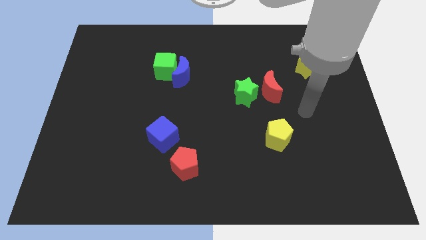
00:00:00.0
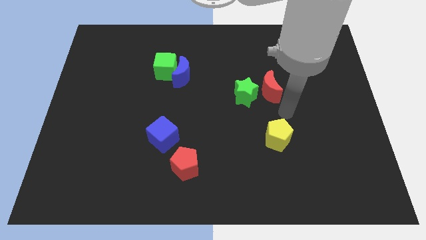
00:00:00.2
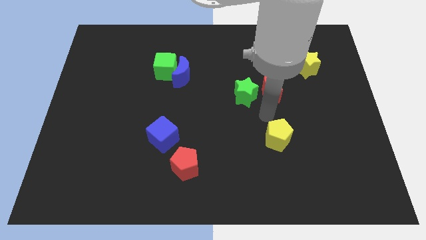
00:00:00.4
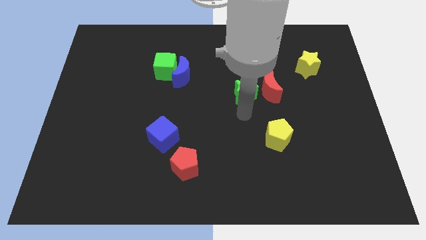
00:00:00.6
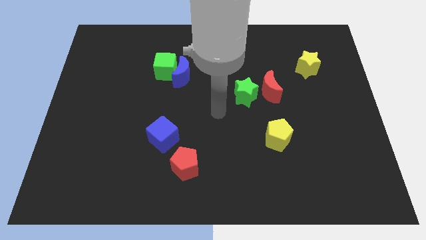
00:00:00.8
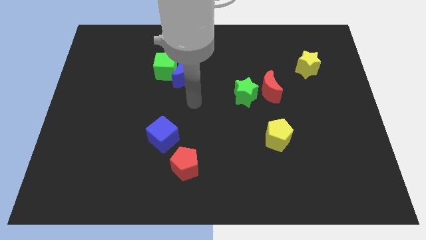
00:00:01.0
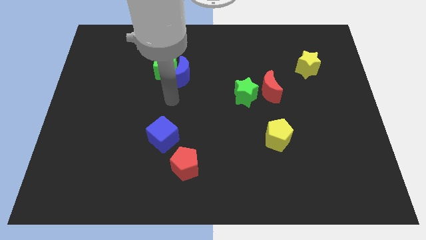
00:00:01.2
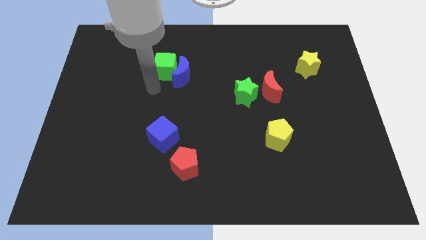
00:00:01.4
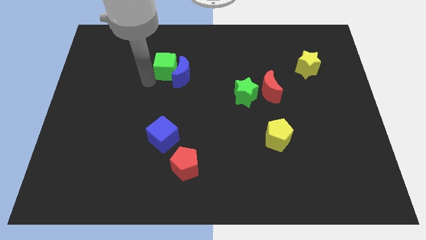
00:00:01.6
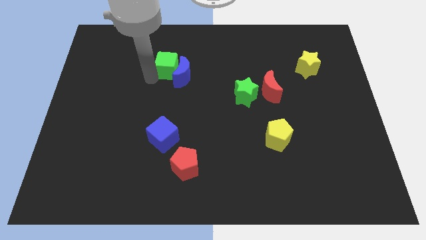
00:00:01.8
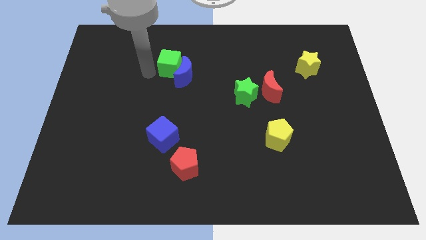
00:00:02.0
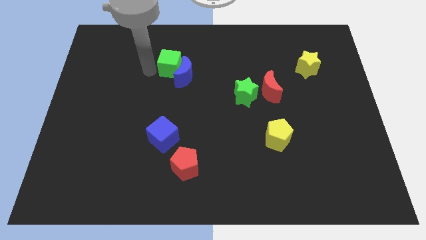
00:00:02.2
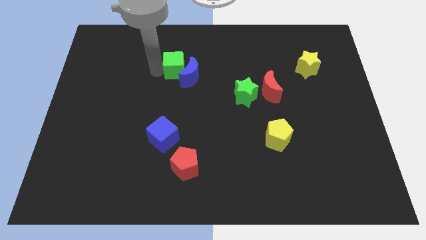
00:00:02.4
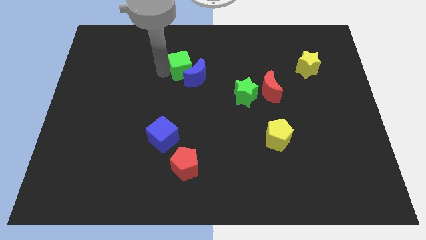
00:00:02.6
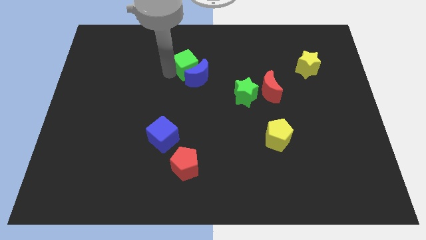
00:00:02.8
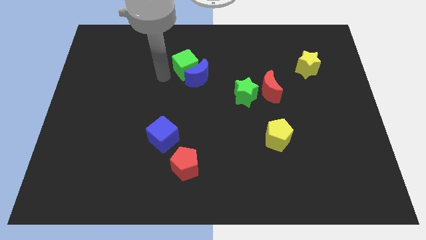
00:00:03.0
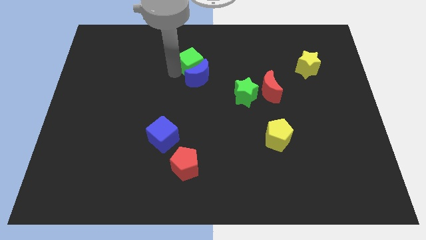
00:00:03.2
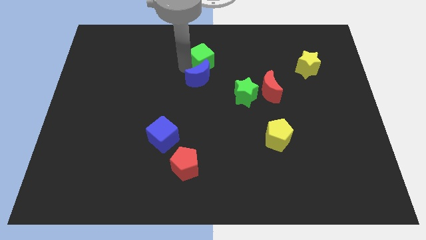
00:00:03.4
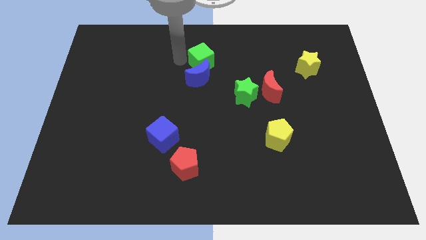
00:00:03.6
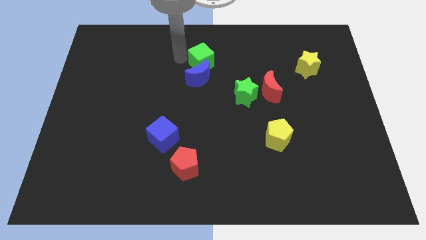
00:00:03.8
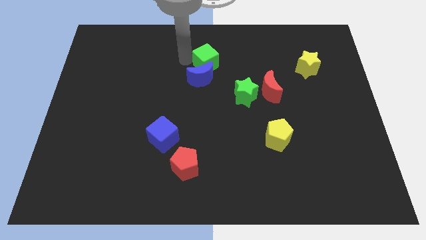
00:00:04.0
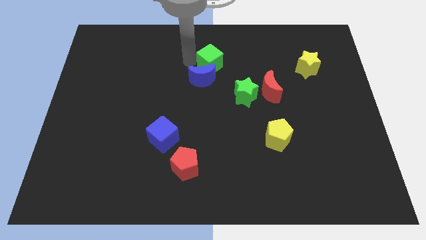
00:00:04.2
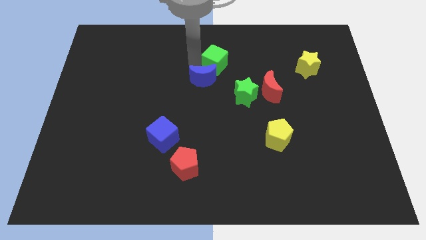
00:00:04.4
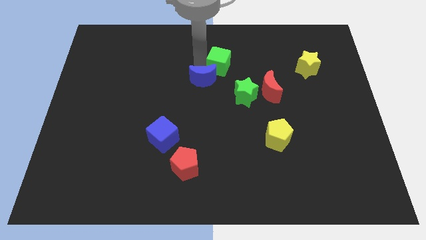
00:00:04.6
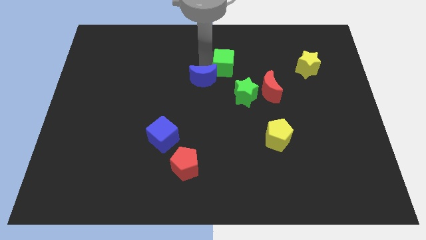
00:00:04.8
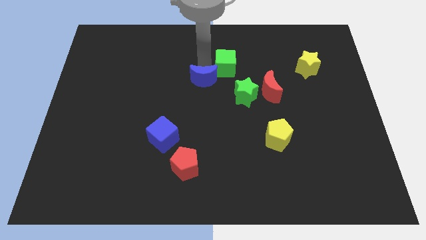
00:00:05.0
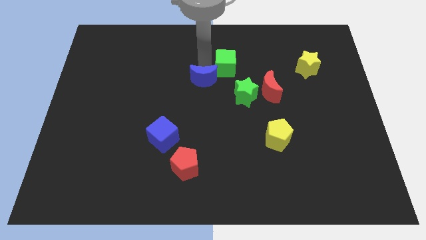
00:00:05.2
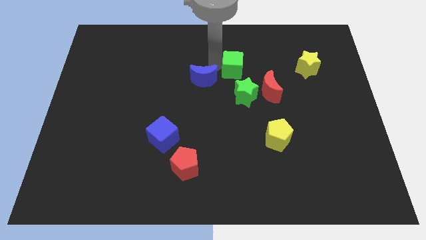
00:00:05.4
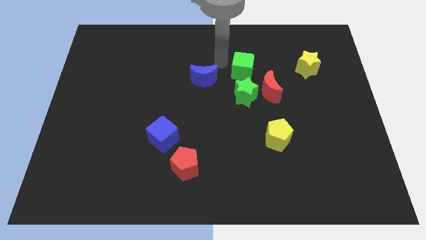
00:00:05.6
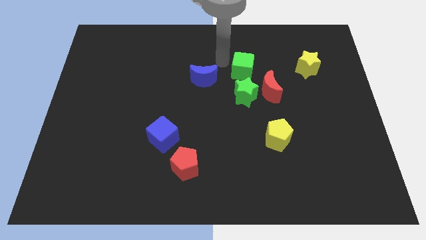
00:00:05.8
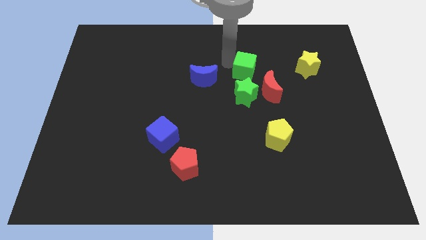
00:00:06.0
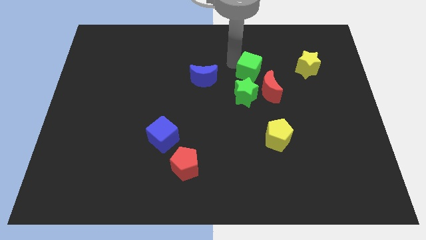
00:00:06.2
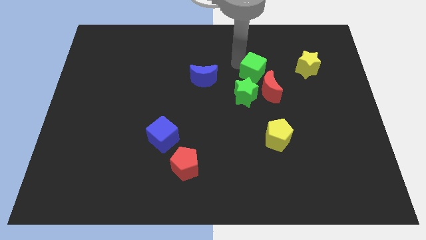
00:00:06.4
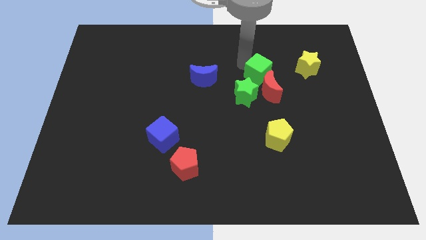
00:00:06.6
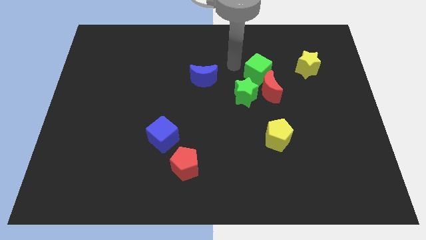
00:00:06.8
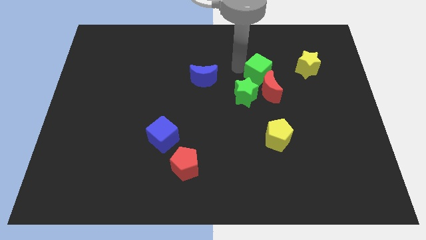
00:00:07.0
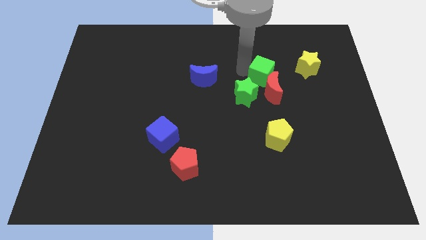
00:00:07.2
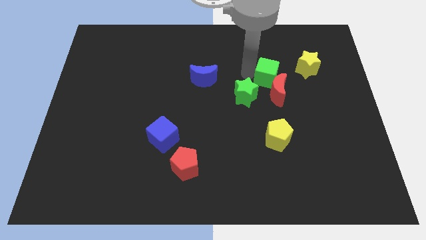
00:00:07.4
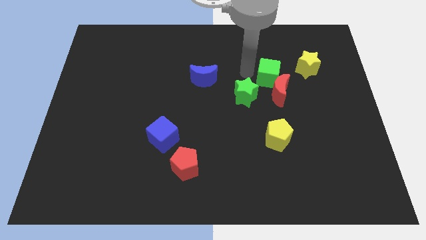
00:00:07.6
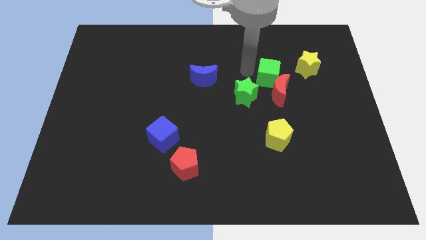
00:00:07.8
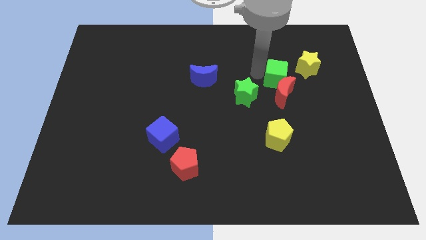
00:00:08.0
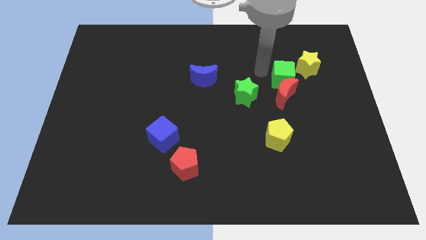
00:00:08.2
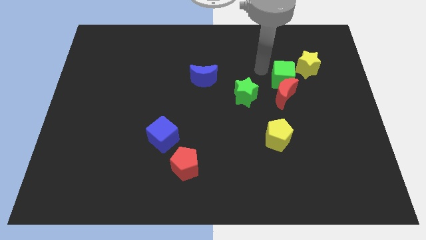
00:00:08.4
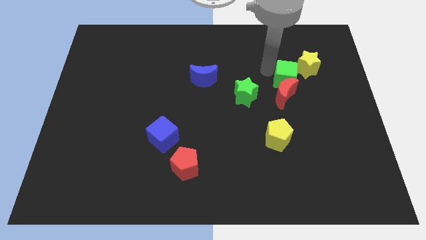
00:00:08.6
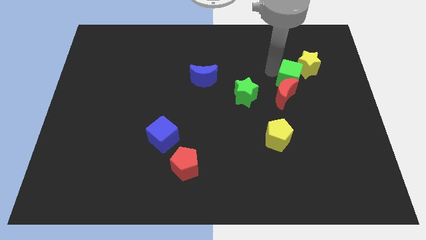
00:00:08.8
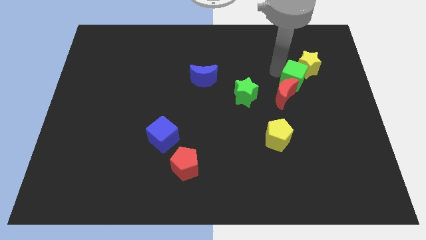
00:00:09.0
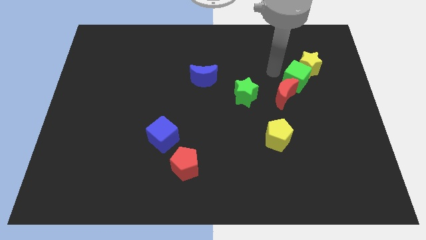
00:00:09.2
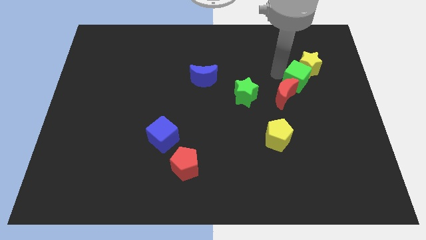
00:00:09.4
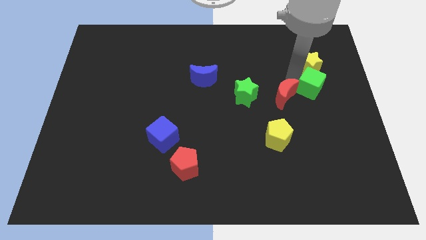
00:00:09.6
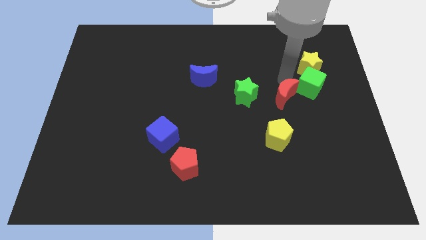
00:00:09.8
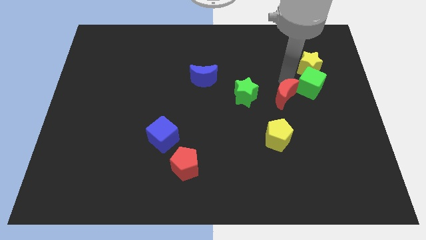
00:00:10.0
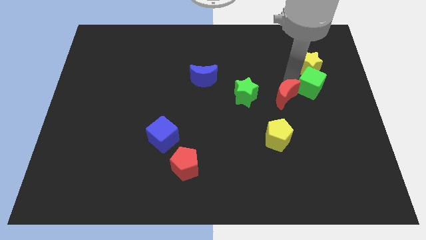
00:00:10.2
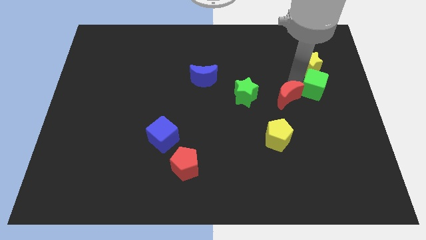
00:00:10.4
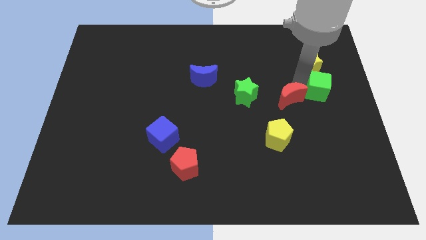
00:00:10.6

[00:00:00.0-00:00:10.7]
put the green cube to the right side
